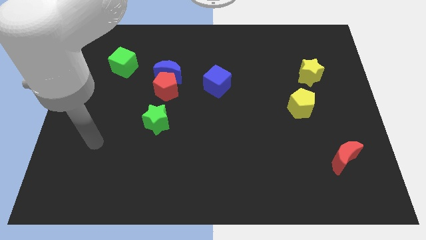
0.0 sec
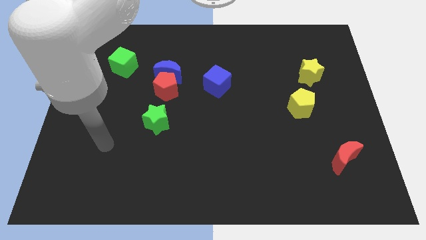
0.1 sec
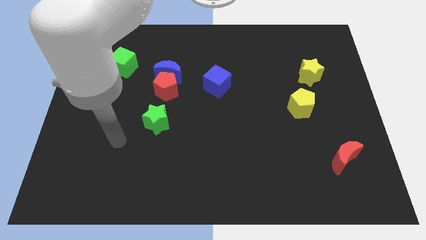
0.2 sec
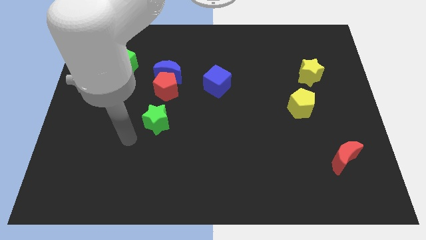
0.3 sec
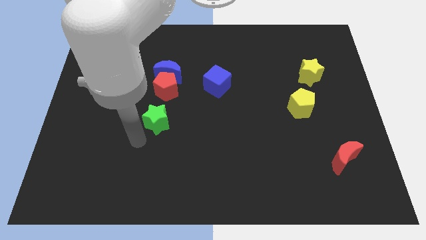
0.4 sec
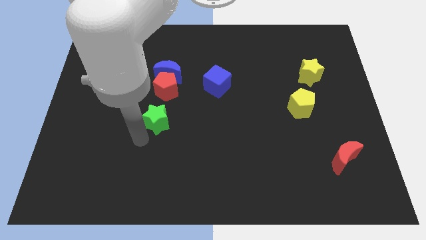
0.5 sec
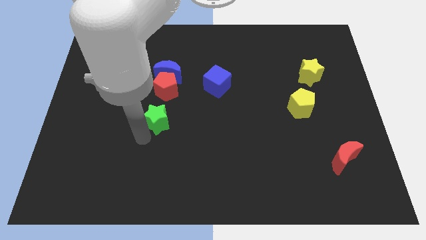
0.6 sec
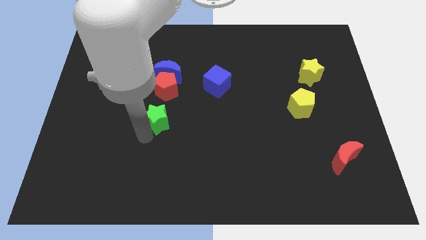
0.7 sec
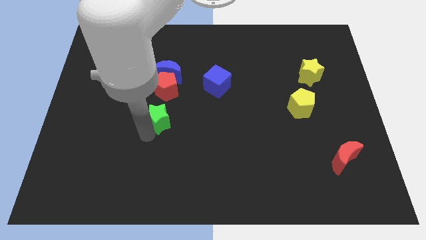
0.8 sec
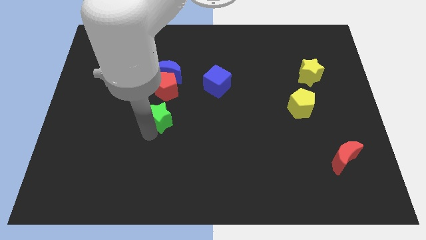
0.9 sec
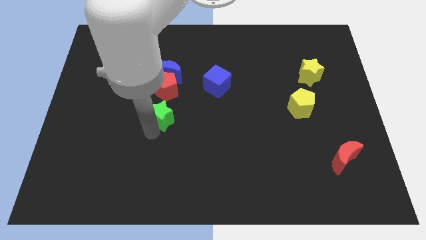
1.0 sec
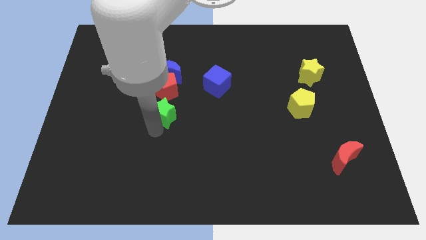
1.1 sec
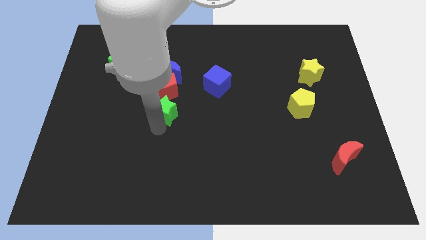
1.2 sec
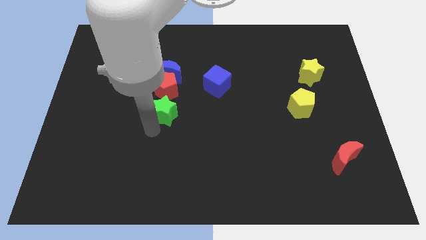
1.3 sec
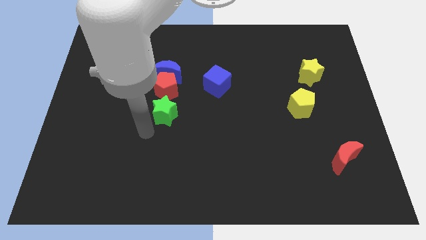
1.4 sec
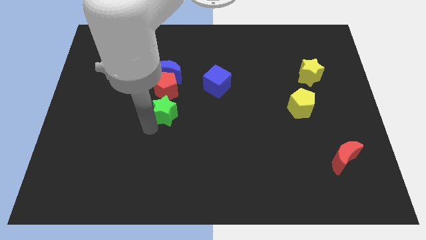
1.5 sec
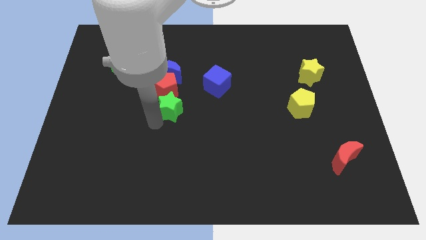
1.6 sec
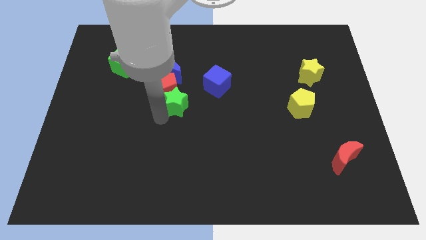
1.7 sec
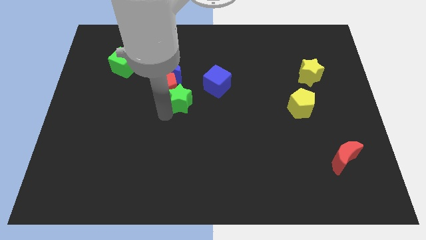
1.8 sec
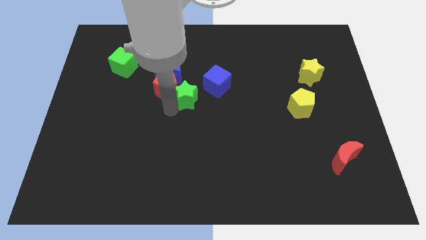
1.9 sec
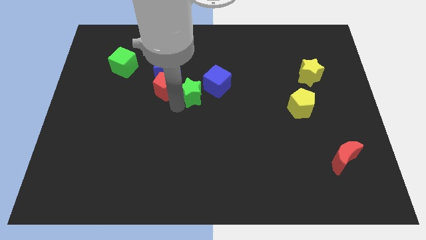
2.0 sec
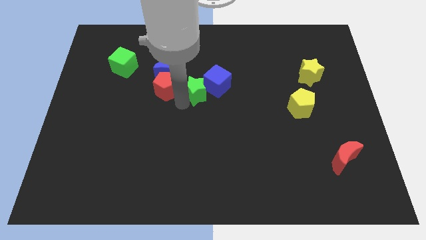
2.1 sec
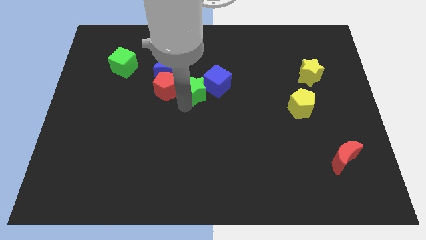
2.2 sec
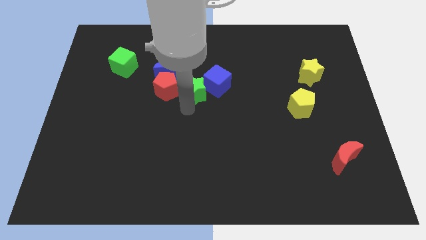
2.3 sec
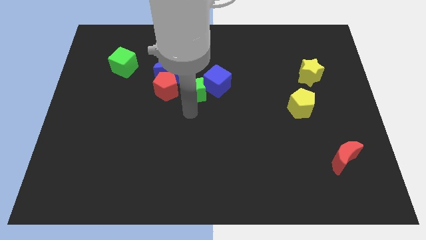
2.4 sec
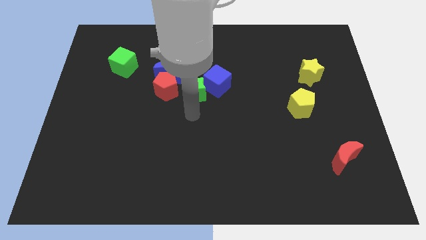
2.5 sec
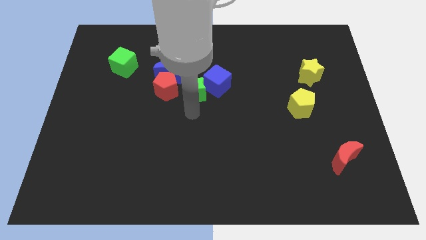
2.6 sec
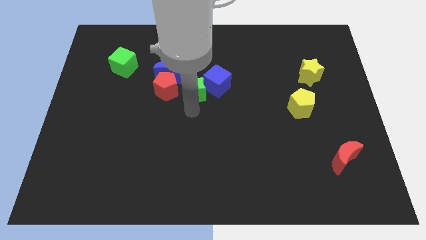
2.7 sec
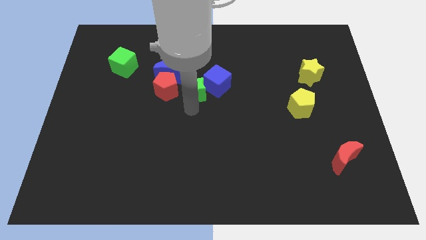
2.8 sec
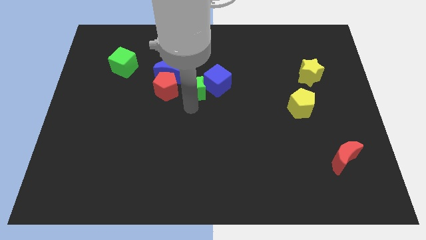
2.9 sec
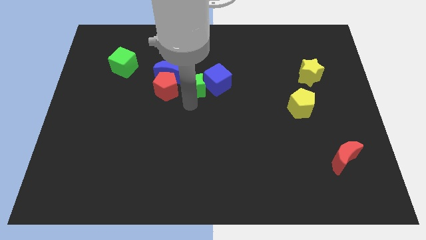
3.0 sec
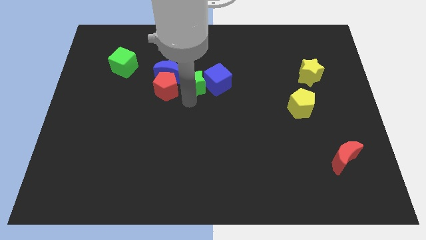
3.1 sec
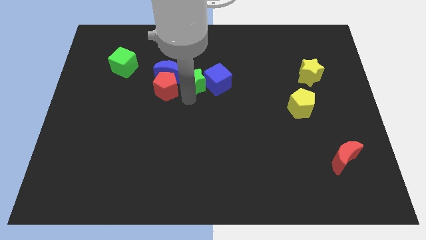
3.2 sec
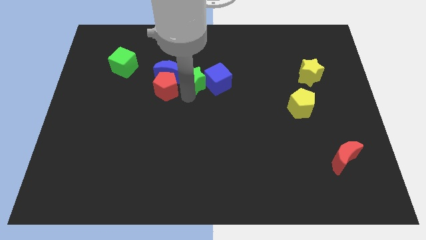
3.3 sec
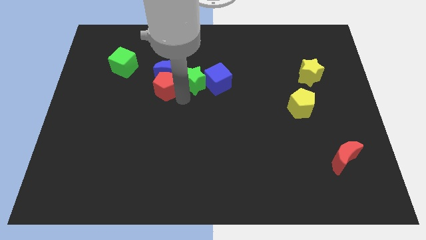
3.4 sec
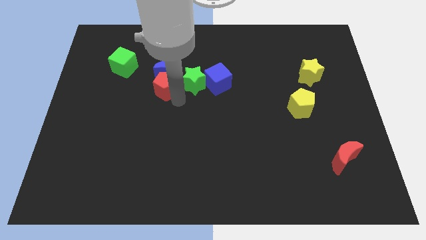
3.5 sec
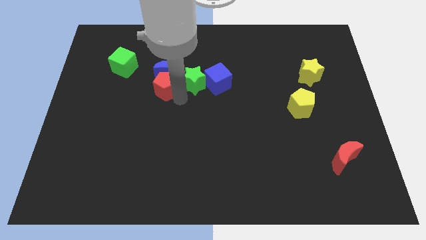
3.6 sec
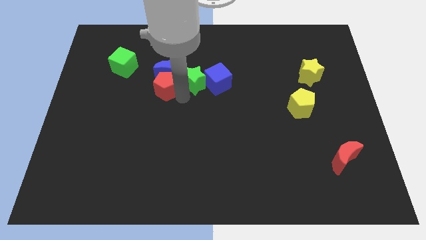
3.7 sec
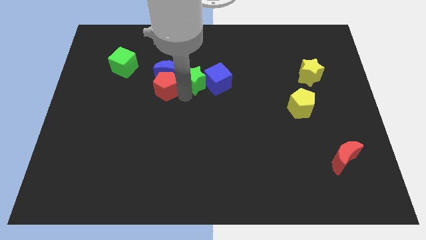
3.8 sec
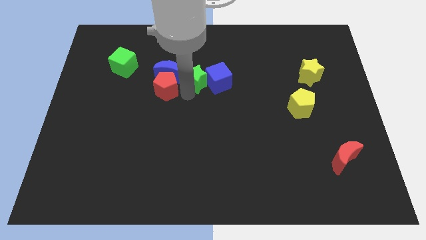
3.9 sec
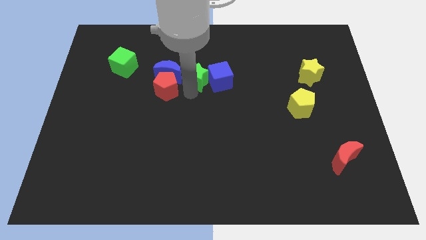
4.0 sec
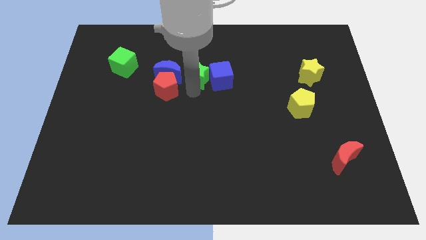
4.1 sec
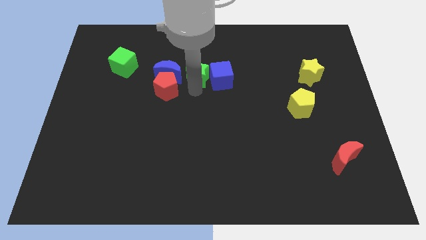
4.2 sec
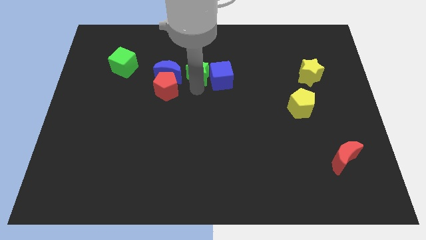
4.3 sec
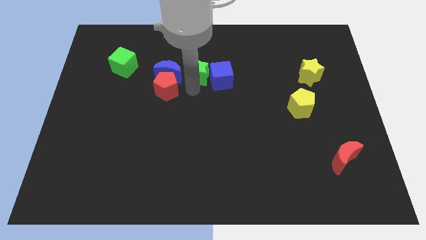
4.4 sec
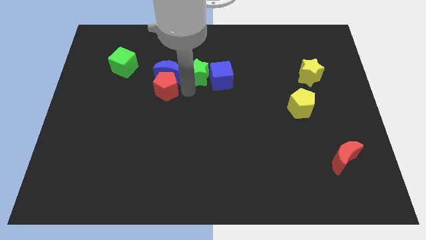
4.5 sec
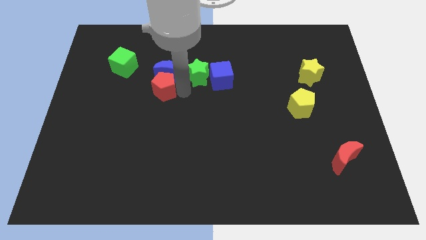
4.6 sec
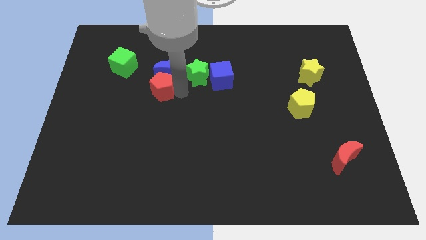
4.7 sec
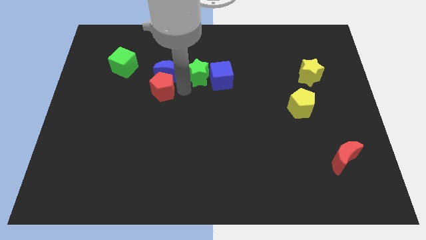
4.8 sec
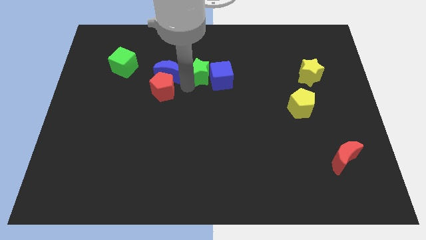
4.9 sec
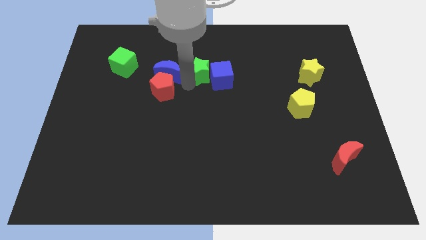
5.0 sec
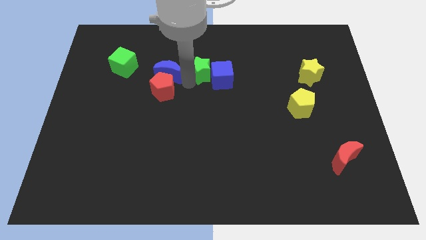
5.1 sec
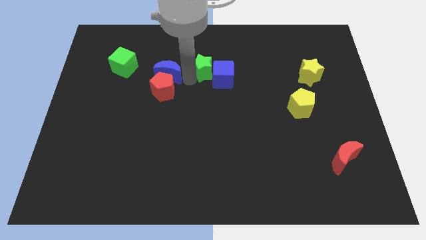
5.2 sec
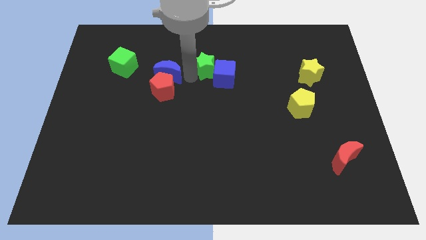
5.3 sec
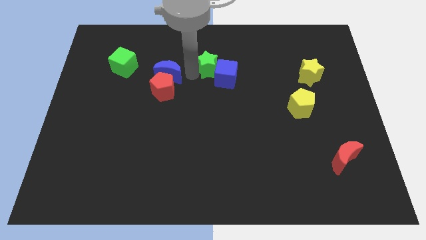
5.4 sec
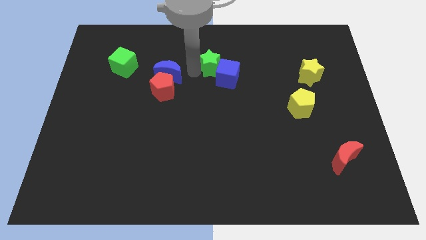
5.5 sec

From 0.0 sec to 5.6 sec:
move the green star to the top side of the blue cube

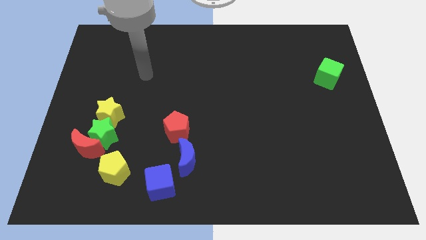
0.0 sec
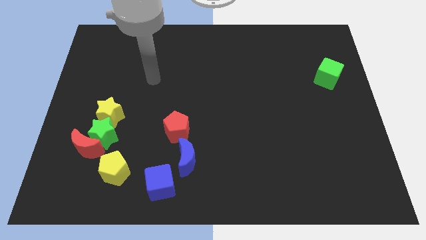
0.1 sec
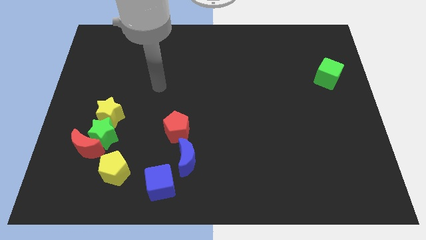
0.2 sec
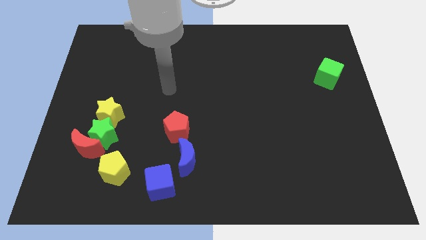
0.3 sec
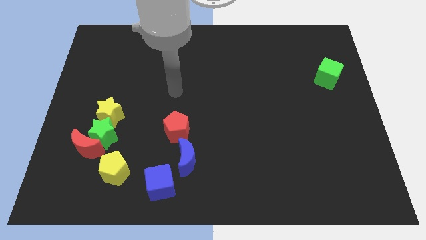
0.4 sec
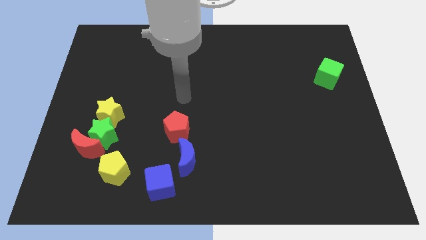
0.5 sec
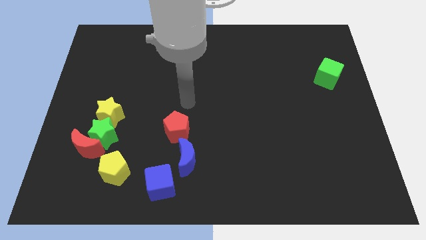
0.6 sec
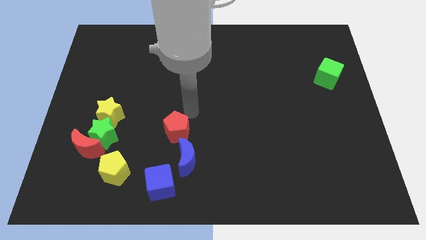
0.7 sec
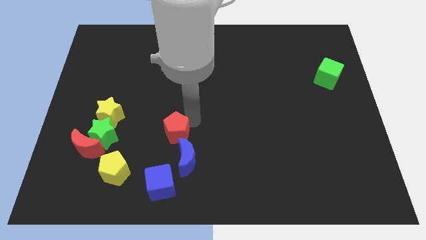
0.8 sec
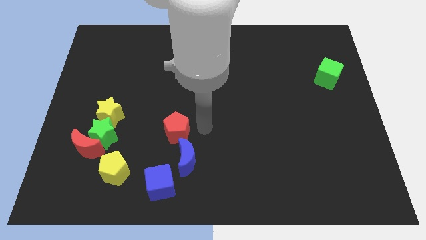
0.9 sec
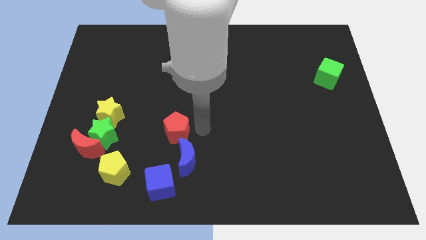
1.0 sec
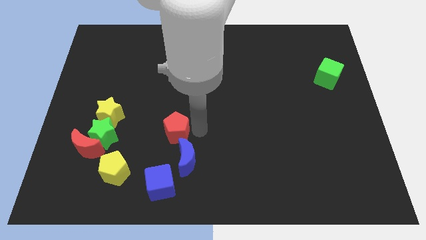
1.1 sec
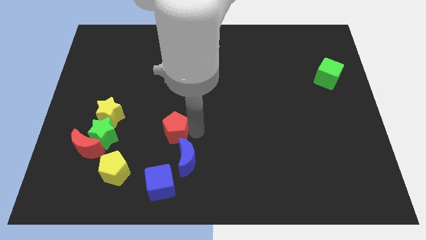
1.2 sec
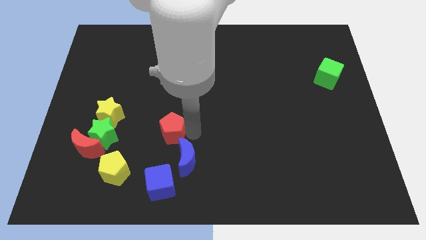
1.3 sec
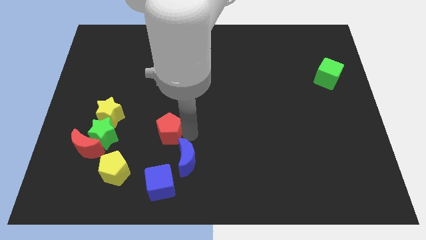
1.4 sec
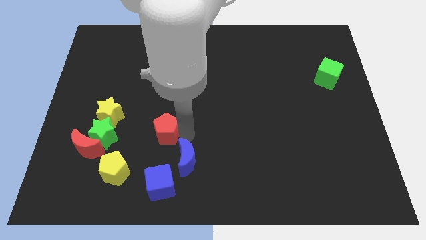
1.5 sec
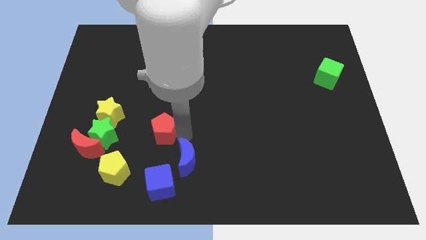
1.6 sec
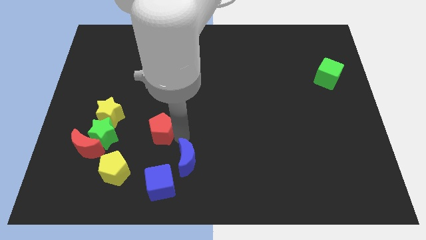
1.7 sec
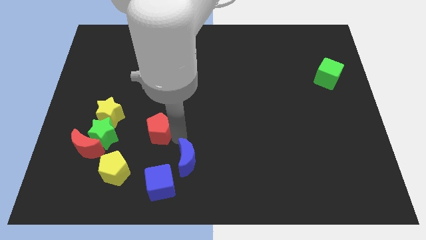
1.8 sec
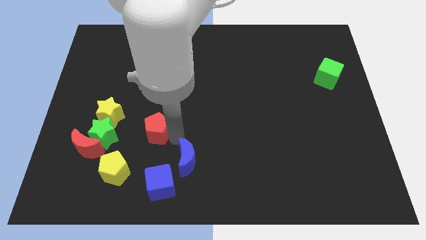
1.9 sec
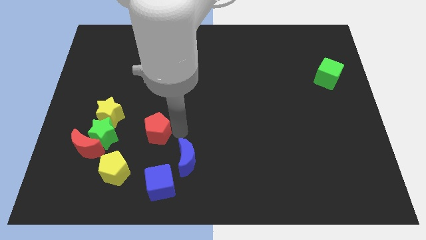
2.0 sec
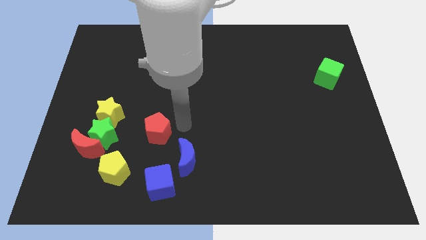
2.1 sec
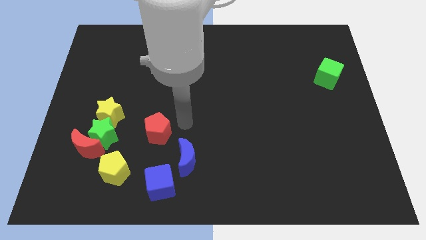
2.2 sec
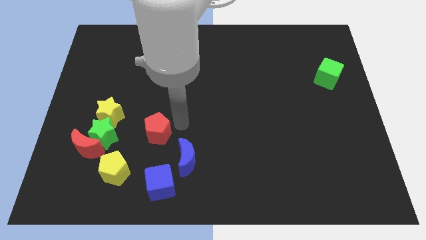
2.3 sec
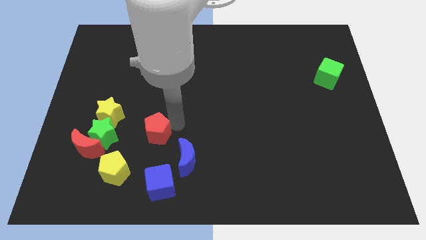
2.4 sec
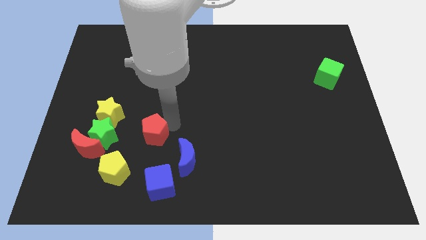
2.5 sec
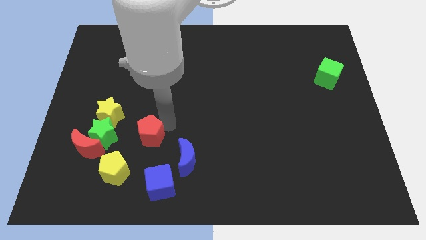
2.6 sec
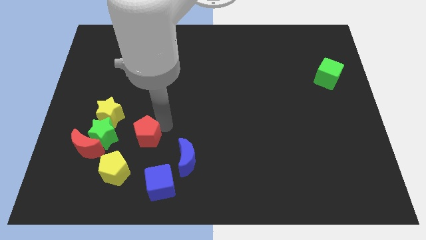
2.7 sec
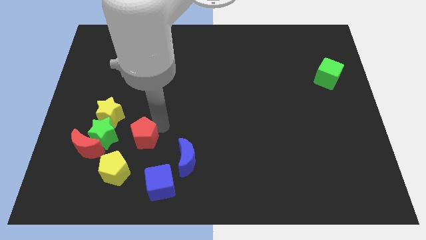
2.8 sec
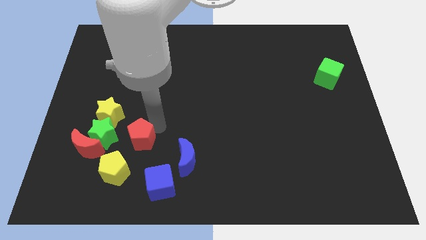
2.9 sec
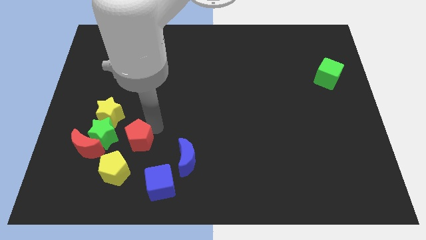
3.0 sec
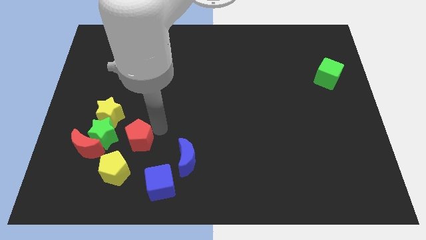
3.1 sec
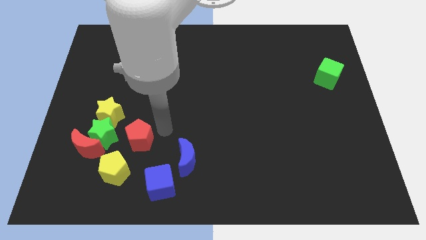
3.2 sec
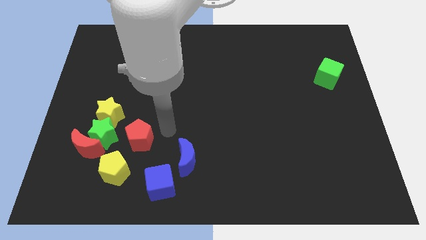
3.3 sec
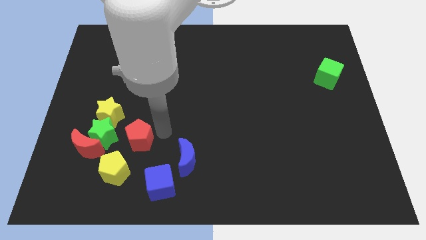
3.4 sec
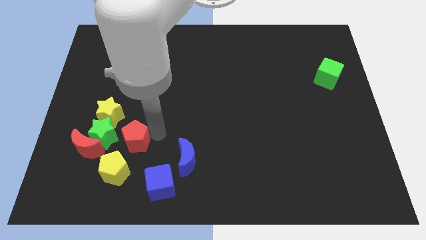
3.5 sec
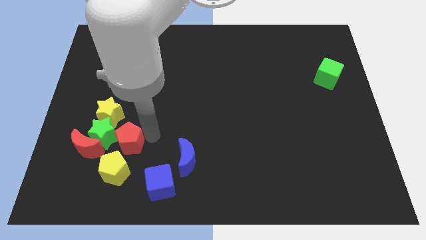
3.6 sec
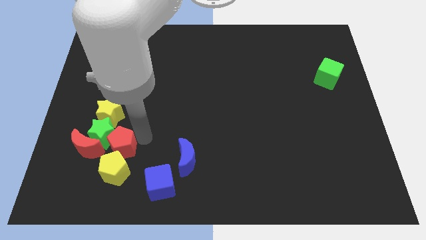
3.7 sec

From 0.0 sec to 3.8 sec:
slide the red pentagon below the yellow star
